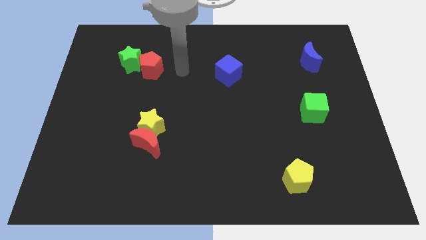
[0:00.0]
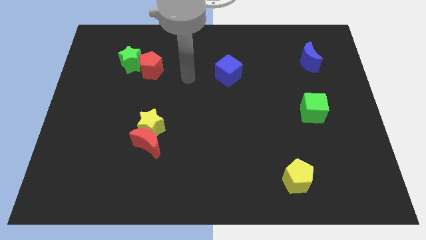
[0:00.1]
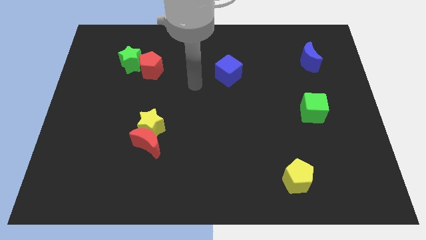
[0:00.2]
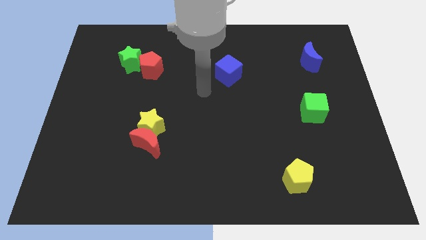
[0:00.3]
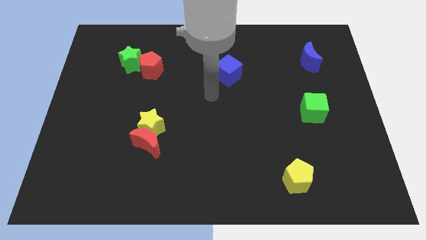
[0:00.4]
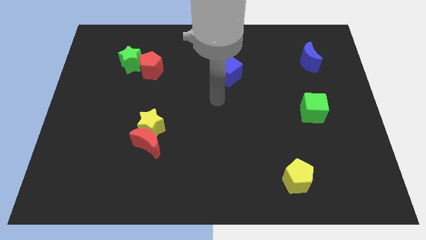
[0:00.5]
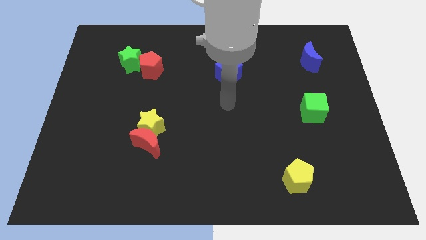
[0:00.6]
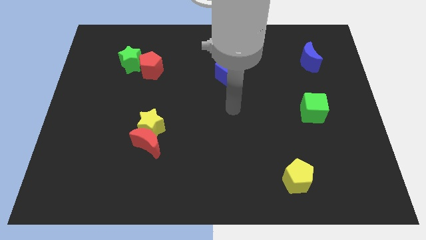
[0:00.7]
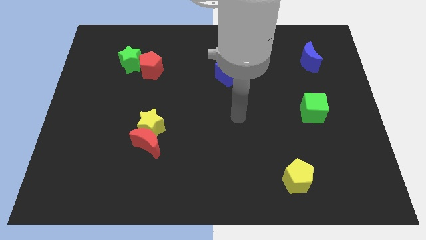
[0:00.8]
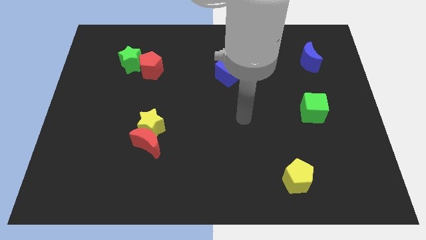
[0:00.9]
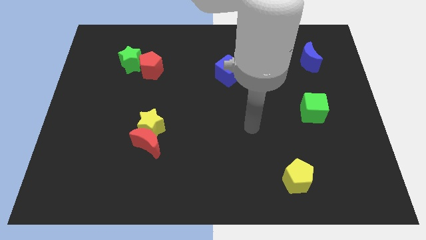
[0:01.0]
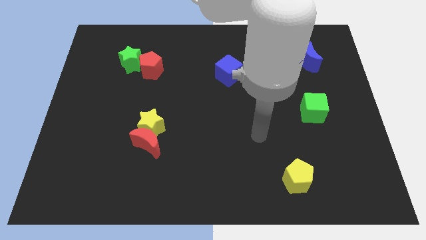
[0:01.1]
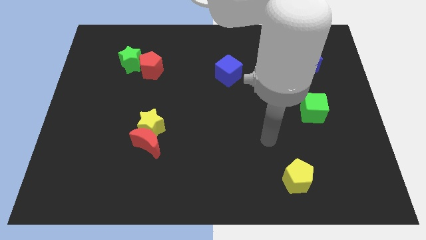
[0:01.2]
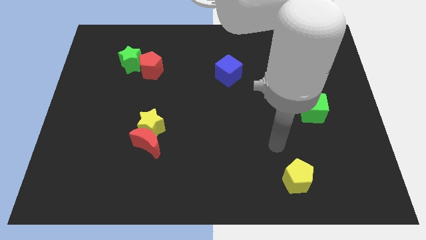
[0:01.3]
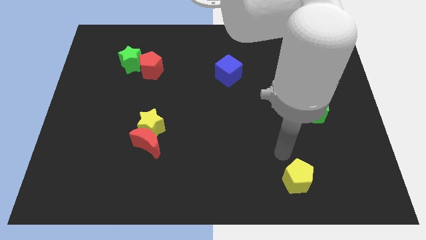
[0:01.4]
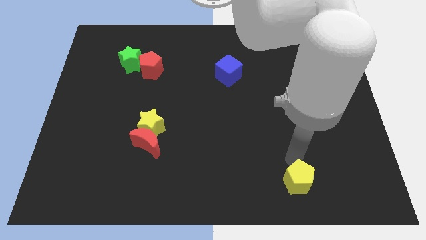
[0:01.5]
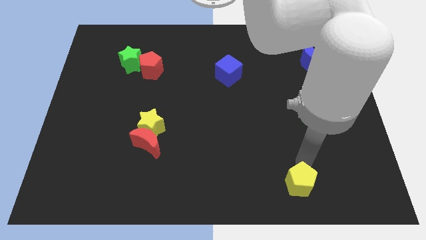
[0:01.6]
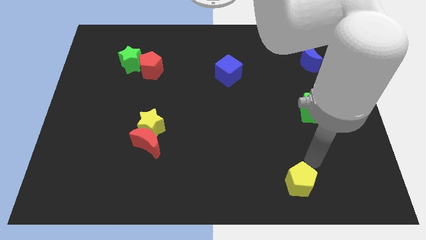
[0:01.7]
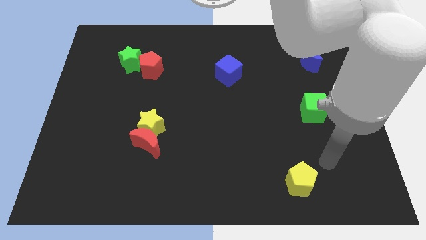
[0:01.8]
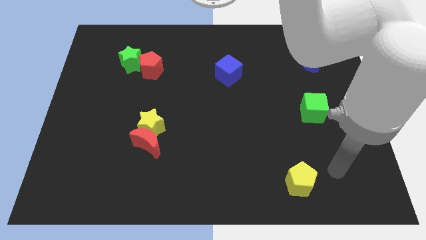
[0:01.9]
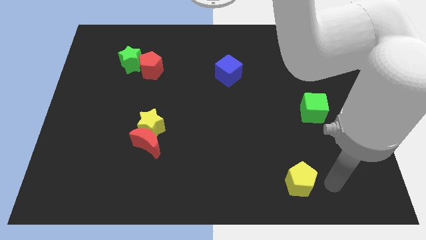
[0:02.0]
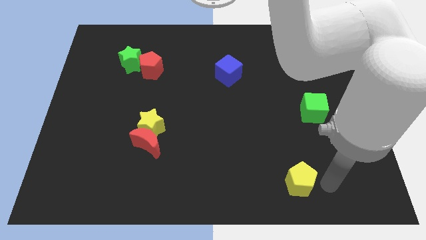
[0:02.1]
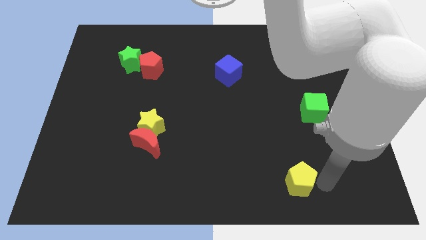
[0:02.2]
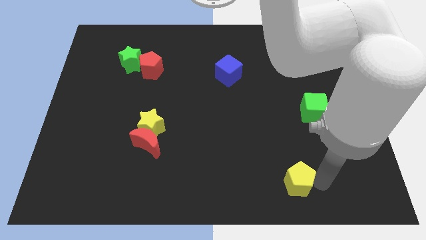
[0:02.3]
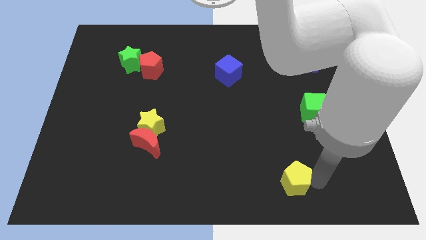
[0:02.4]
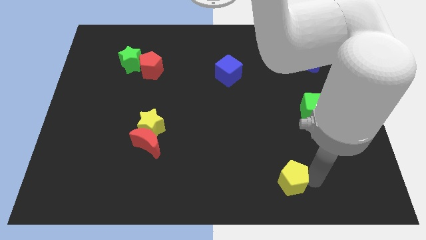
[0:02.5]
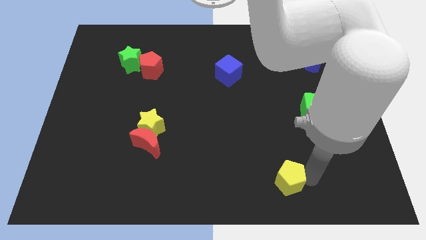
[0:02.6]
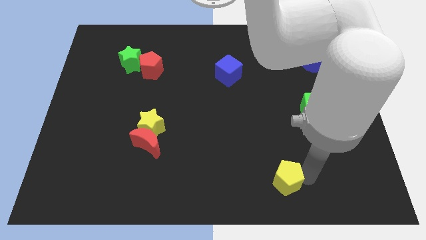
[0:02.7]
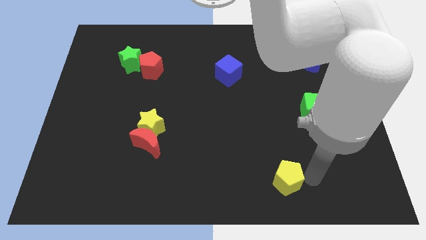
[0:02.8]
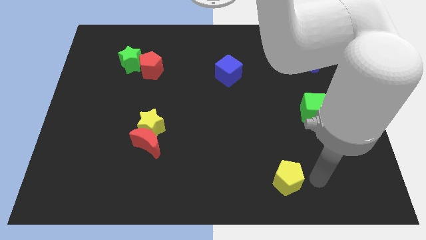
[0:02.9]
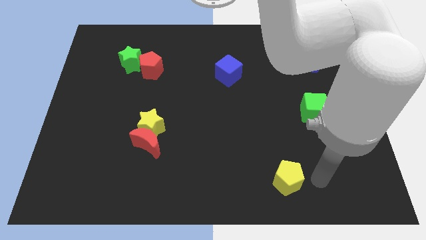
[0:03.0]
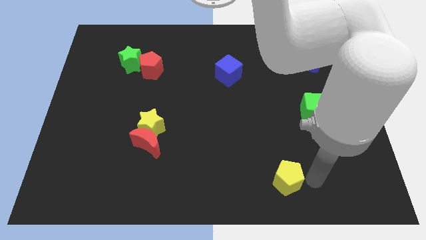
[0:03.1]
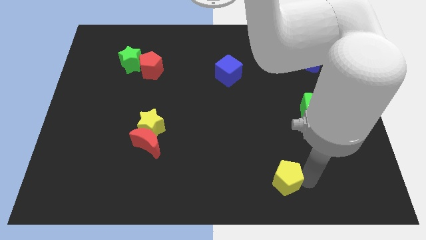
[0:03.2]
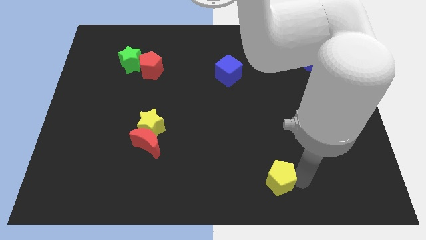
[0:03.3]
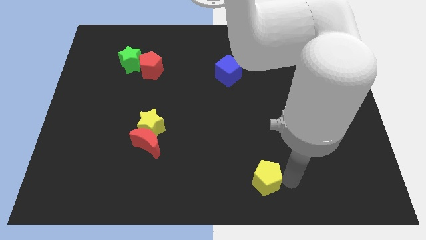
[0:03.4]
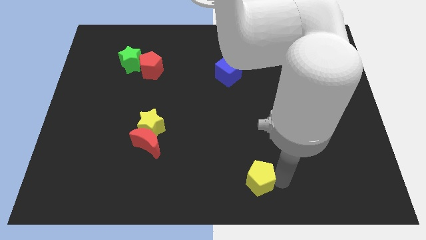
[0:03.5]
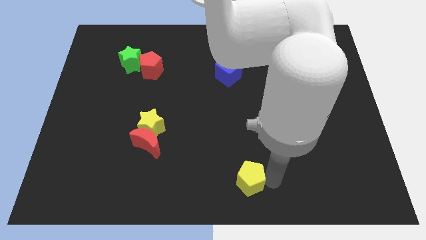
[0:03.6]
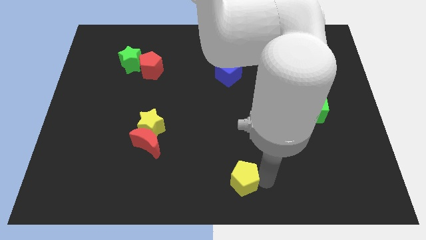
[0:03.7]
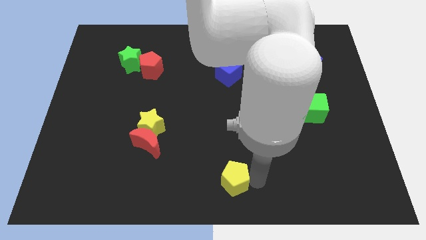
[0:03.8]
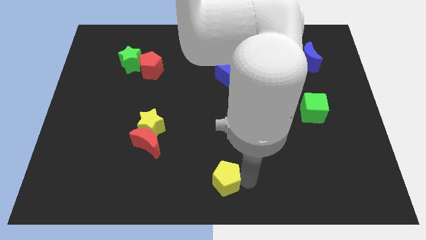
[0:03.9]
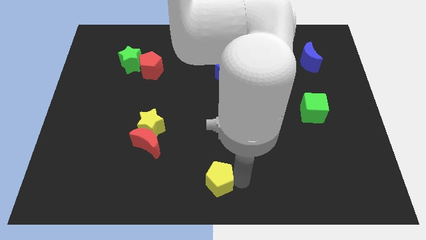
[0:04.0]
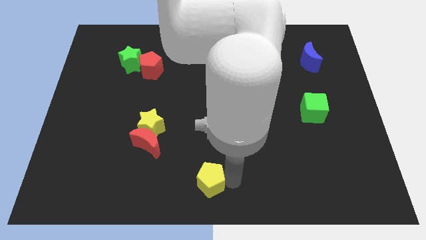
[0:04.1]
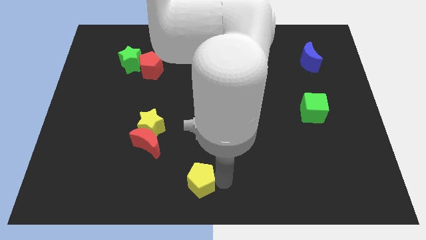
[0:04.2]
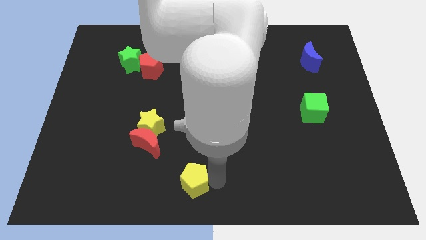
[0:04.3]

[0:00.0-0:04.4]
slide the yellow pentagon to the left

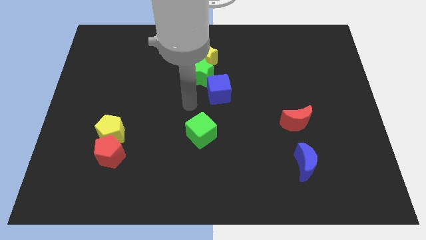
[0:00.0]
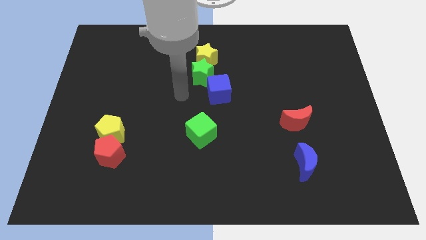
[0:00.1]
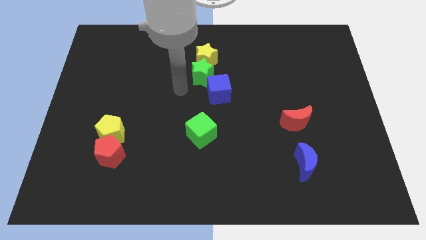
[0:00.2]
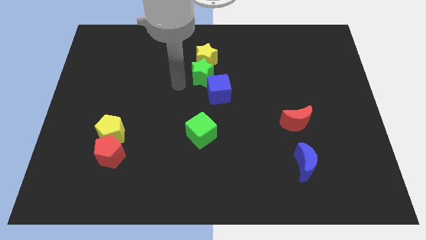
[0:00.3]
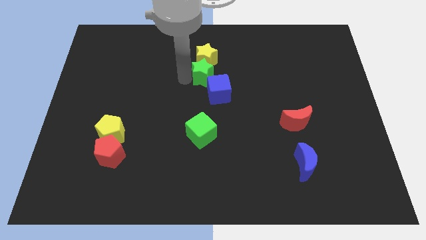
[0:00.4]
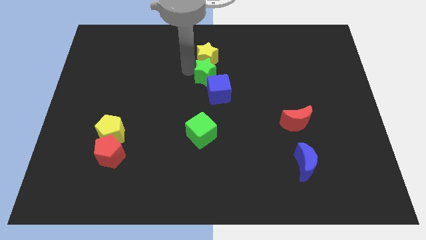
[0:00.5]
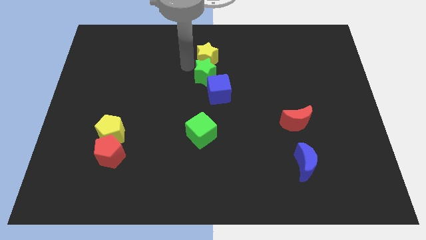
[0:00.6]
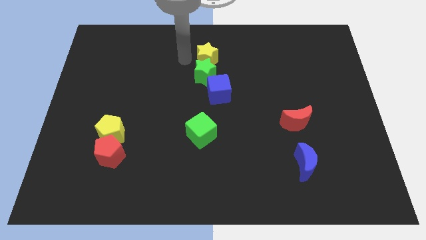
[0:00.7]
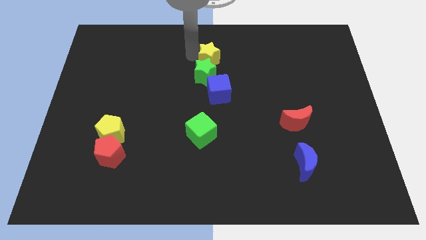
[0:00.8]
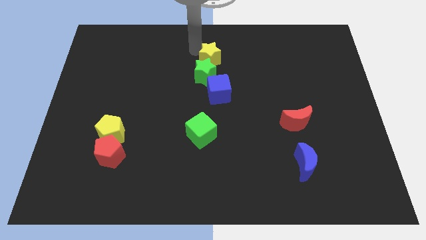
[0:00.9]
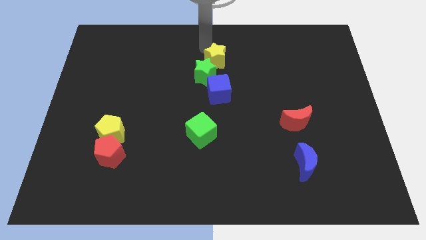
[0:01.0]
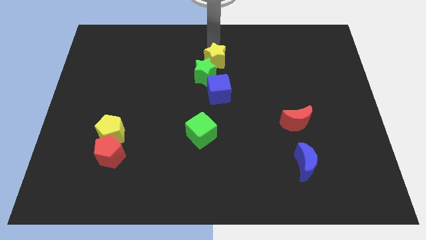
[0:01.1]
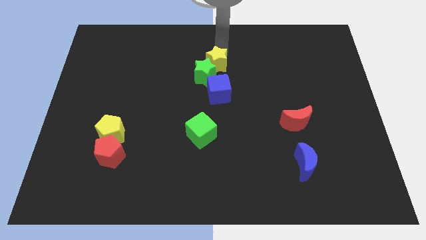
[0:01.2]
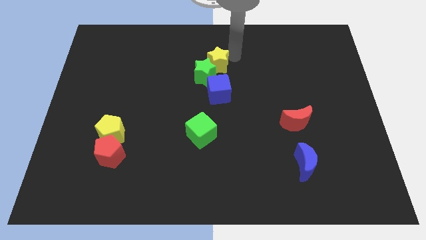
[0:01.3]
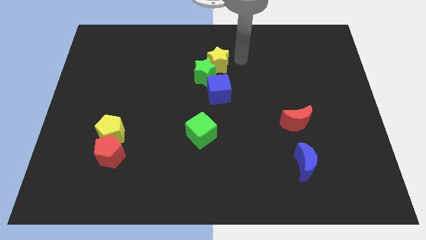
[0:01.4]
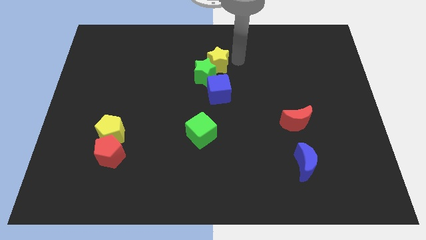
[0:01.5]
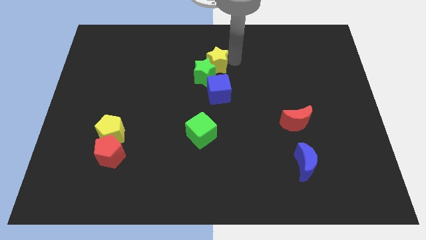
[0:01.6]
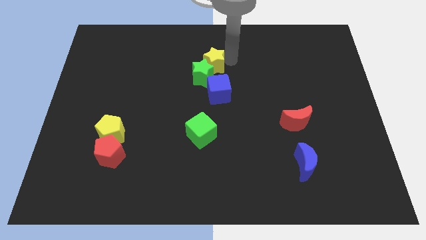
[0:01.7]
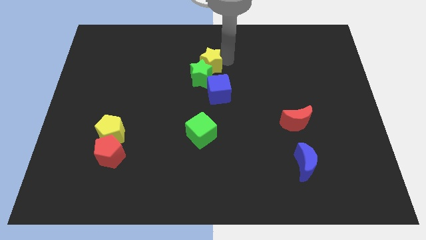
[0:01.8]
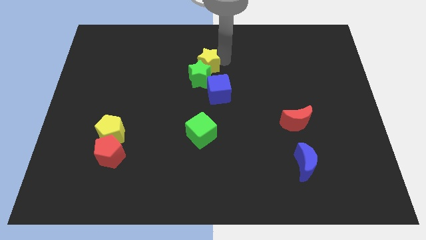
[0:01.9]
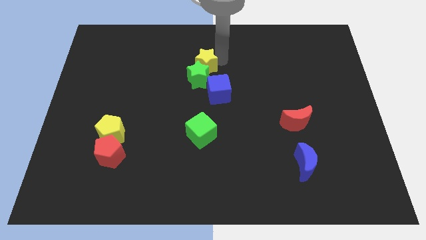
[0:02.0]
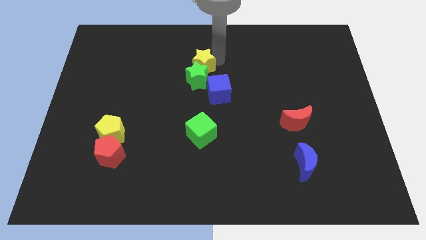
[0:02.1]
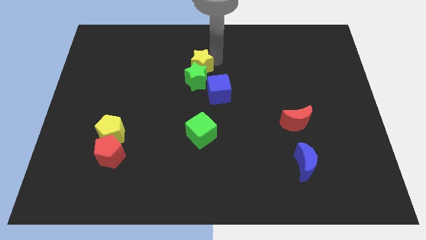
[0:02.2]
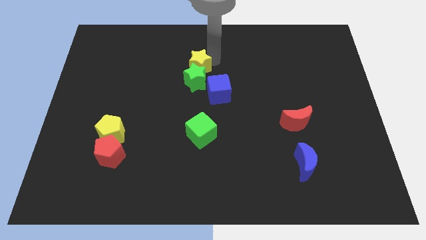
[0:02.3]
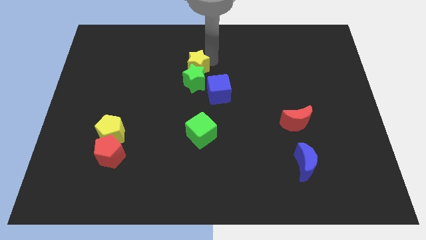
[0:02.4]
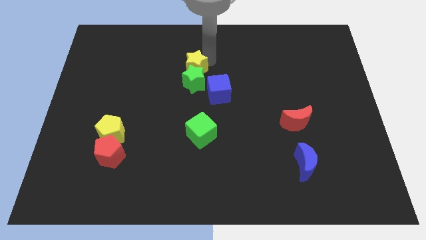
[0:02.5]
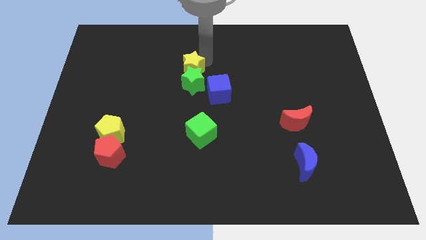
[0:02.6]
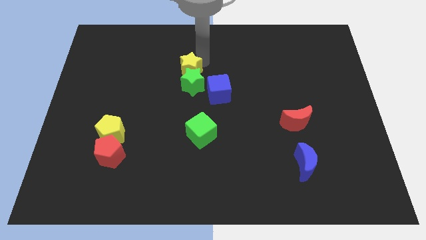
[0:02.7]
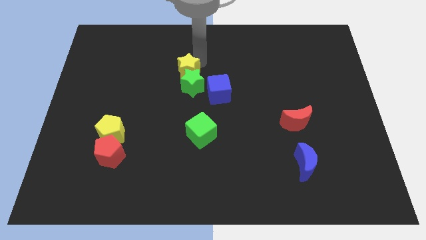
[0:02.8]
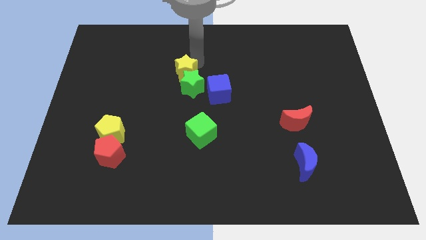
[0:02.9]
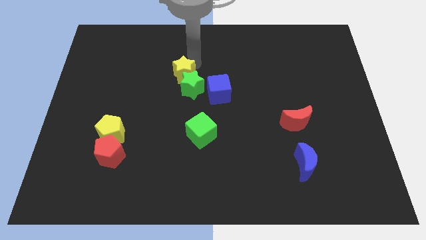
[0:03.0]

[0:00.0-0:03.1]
push the yellow star down and to the left diagonally a little bit

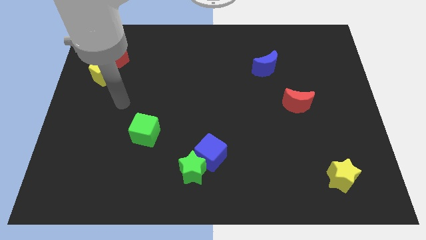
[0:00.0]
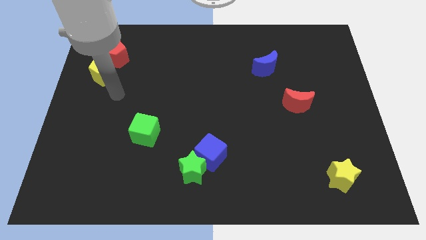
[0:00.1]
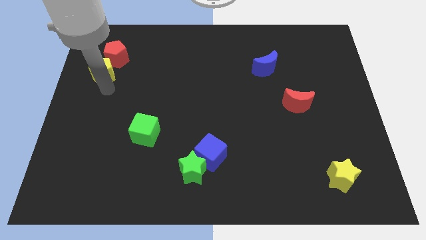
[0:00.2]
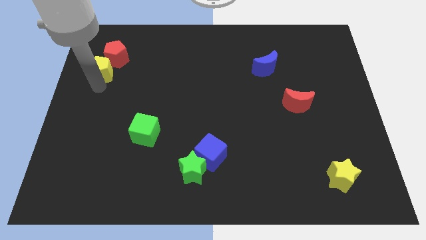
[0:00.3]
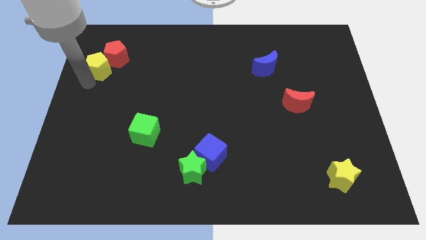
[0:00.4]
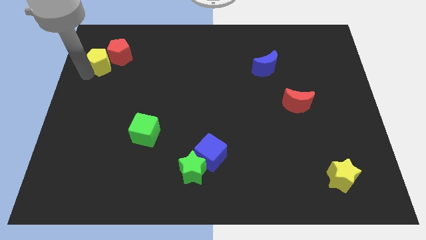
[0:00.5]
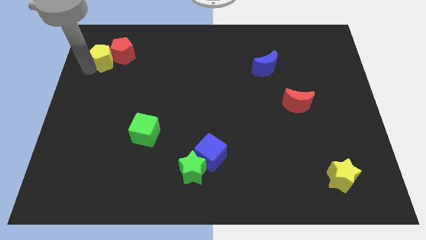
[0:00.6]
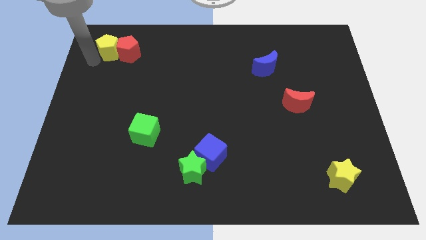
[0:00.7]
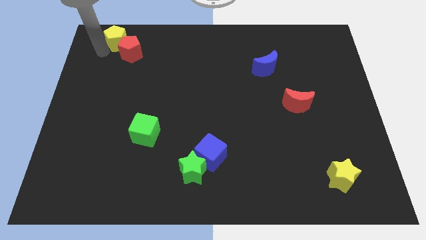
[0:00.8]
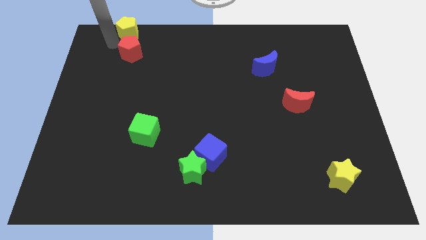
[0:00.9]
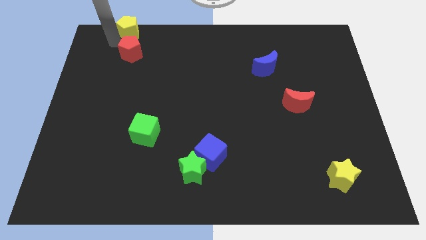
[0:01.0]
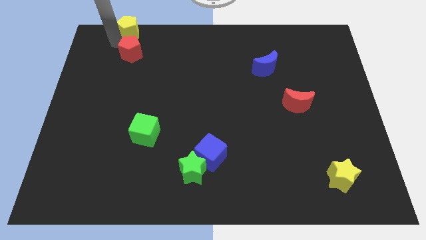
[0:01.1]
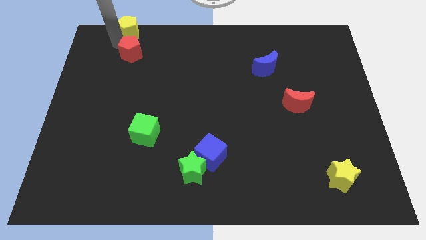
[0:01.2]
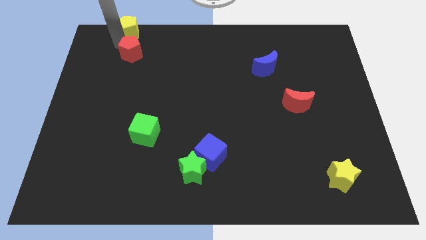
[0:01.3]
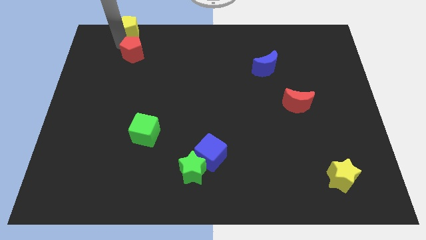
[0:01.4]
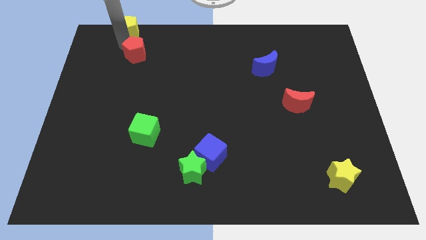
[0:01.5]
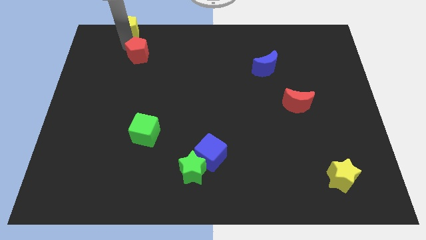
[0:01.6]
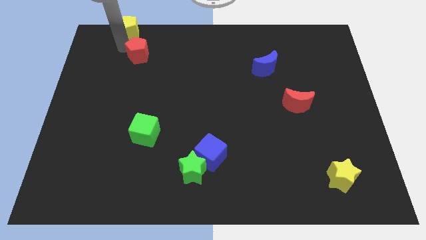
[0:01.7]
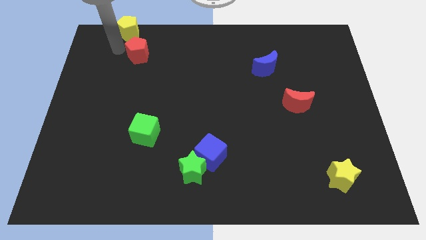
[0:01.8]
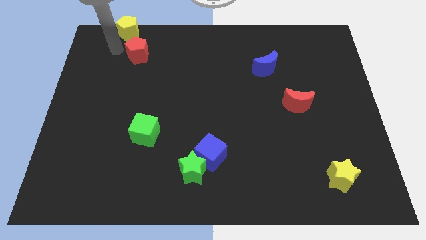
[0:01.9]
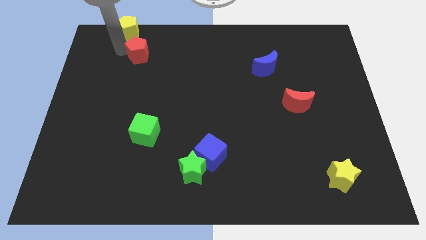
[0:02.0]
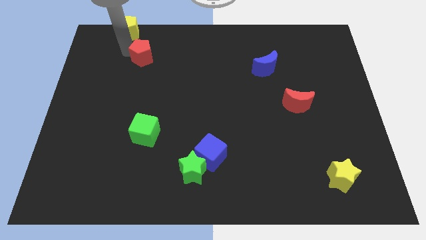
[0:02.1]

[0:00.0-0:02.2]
move the red pentagon to the right slightly
